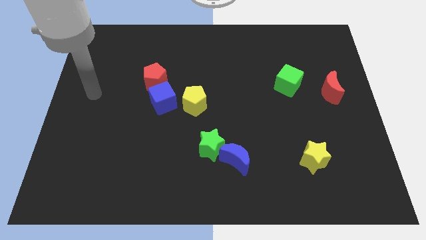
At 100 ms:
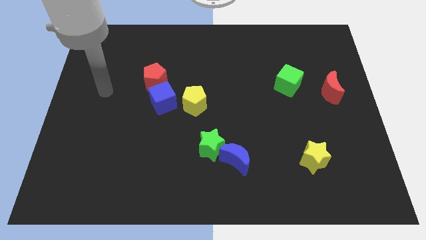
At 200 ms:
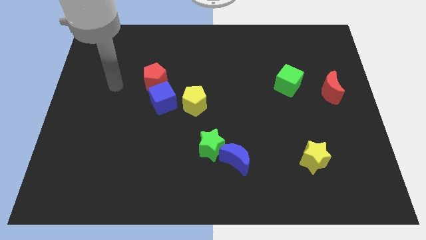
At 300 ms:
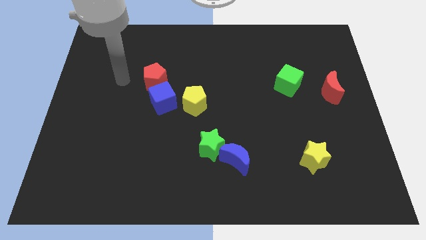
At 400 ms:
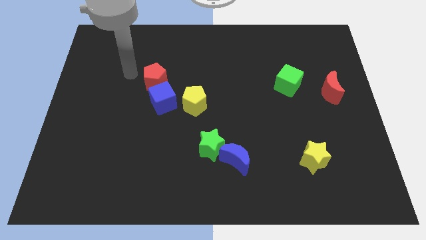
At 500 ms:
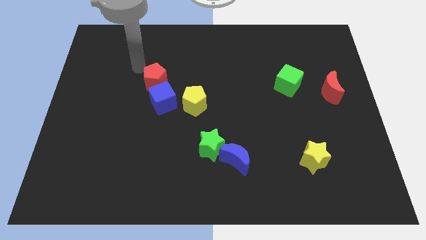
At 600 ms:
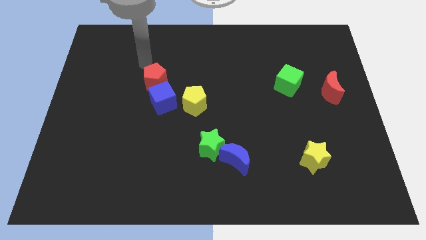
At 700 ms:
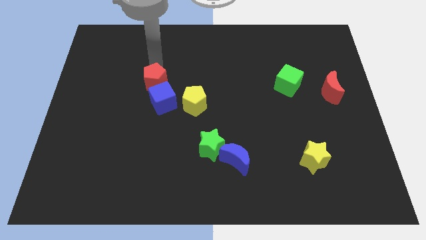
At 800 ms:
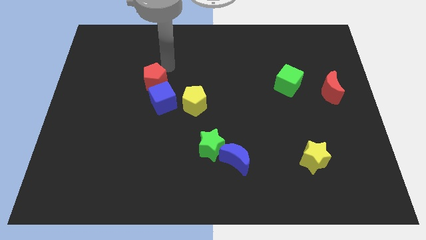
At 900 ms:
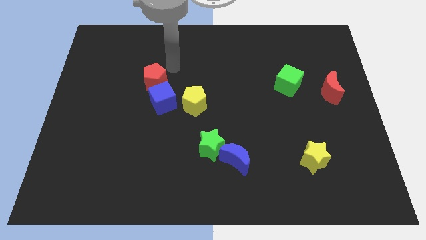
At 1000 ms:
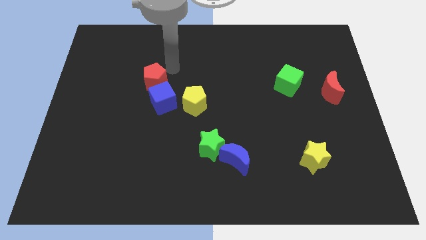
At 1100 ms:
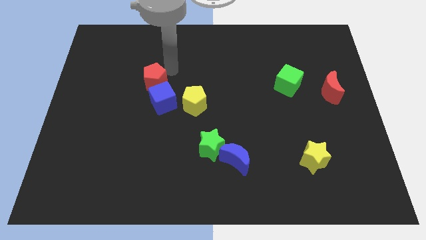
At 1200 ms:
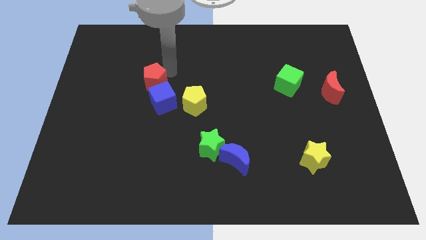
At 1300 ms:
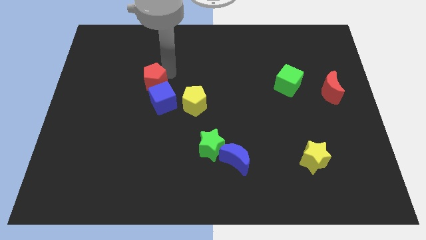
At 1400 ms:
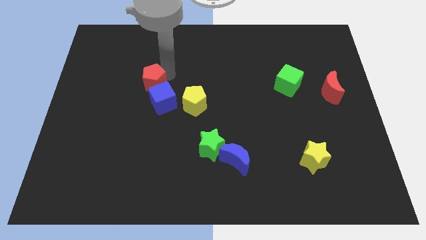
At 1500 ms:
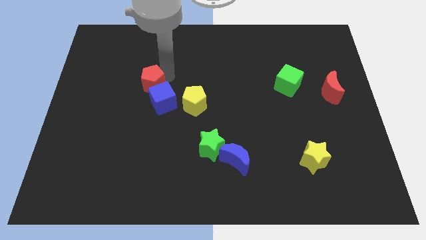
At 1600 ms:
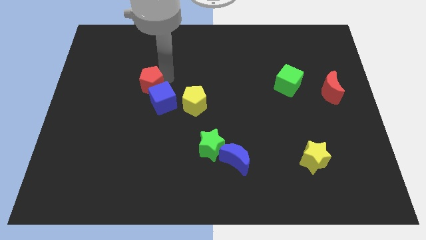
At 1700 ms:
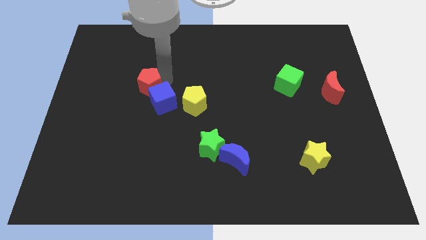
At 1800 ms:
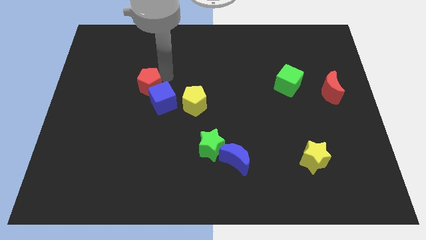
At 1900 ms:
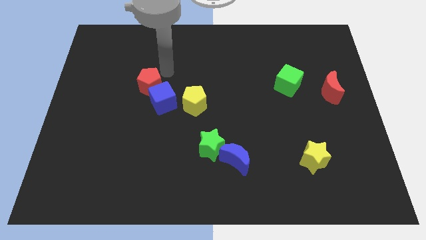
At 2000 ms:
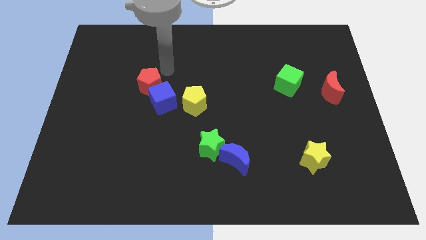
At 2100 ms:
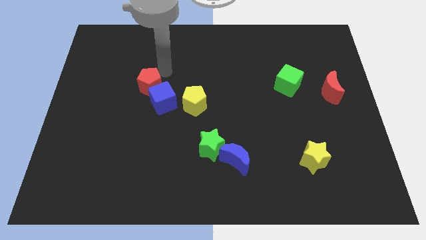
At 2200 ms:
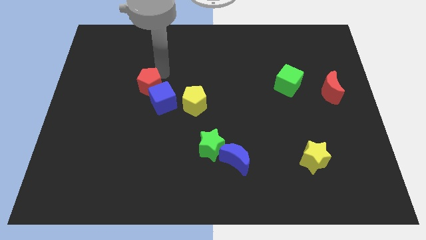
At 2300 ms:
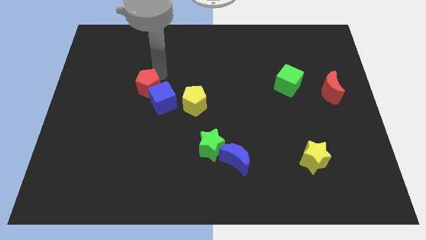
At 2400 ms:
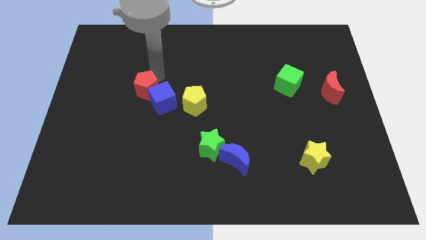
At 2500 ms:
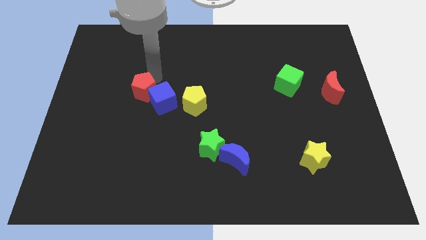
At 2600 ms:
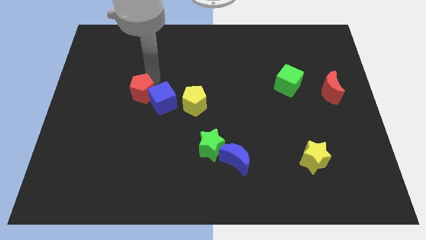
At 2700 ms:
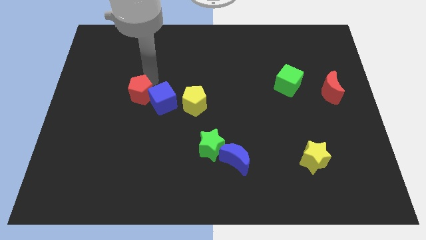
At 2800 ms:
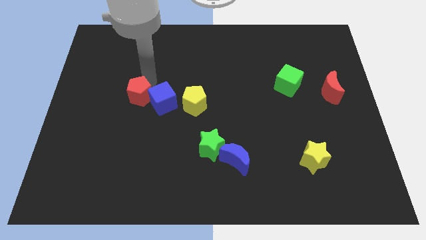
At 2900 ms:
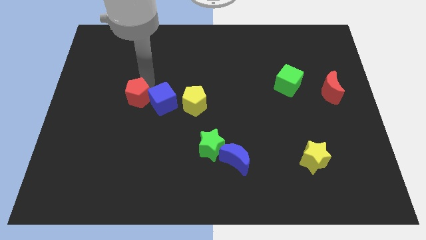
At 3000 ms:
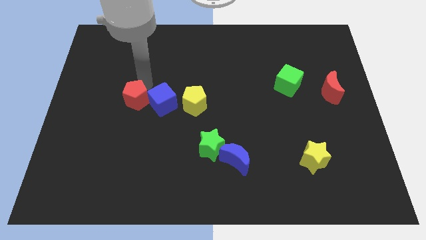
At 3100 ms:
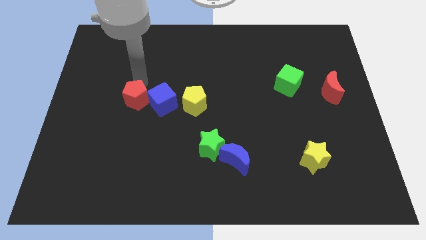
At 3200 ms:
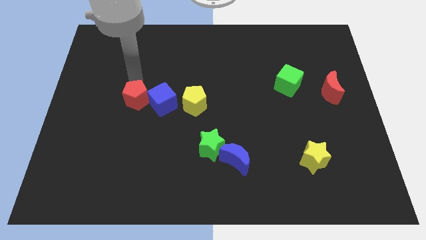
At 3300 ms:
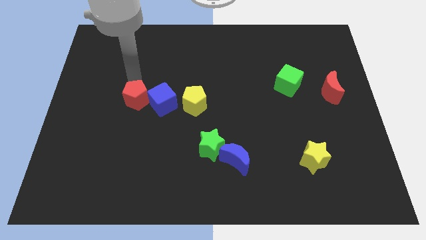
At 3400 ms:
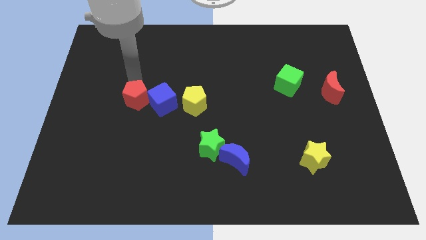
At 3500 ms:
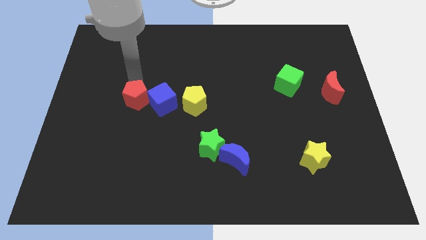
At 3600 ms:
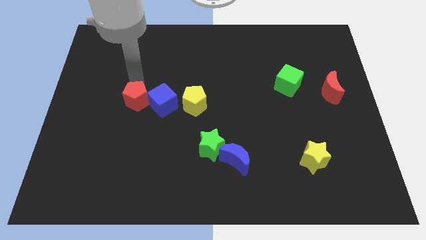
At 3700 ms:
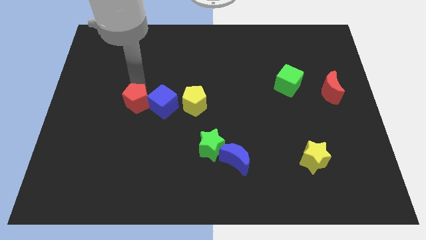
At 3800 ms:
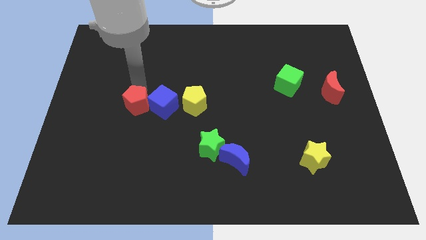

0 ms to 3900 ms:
push the red pentagon slightly down

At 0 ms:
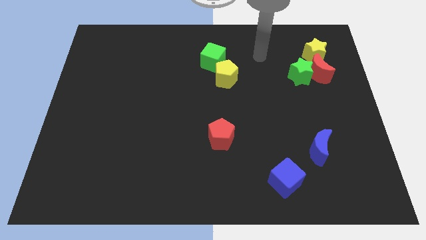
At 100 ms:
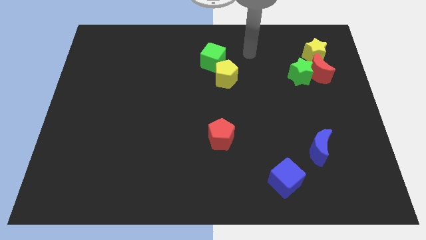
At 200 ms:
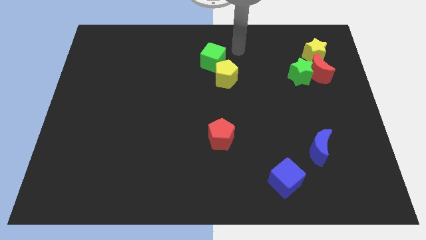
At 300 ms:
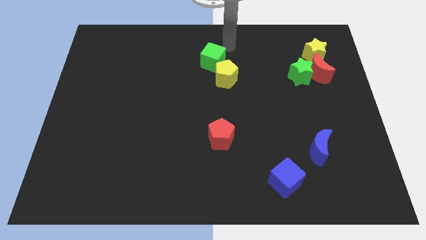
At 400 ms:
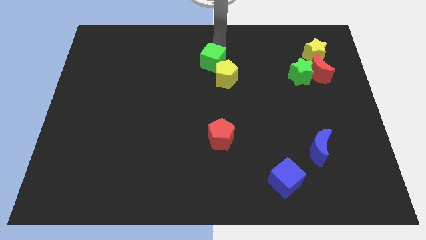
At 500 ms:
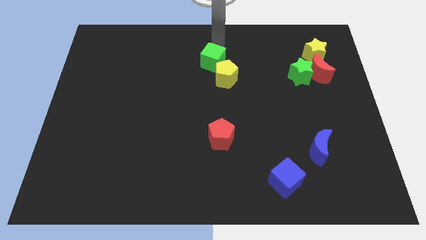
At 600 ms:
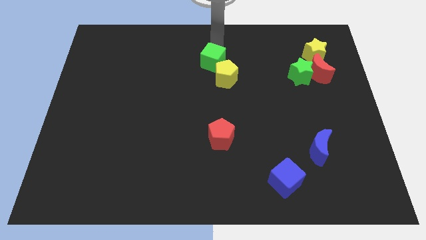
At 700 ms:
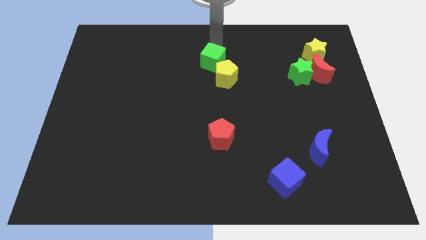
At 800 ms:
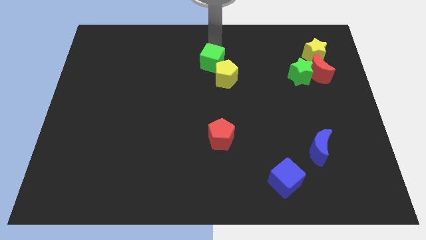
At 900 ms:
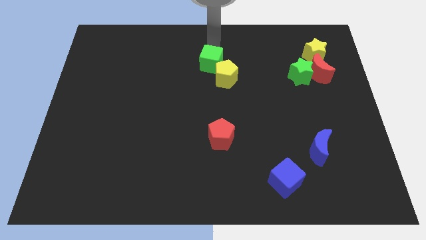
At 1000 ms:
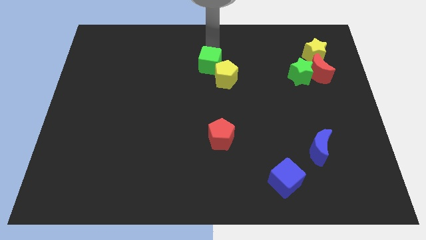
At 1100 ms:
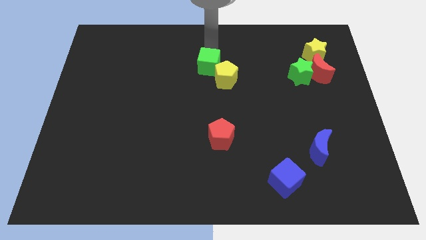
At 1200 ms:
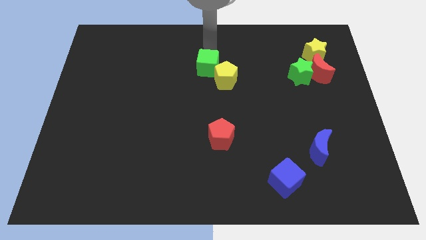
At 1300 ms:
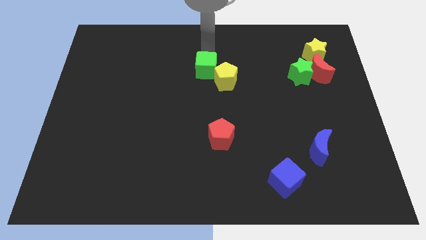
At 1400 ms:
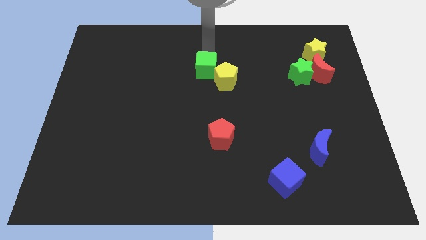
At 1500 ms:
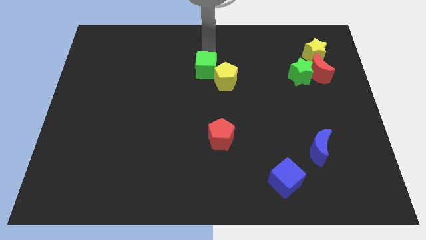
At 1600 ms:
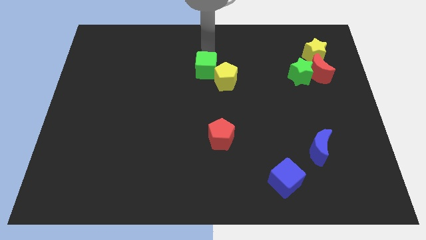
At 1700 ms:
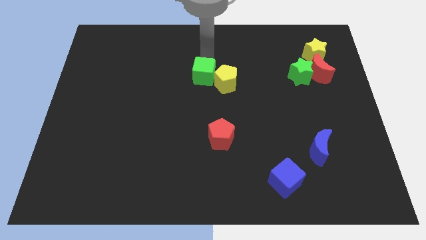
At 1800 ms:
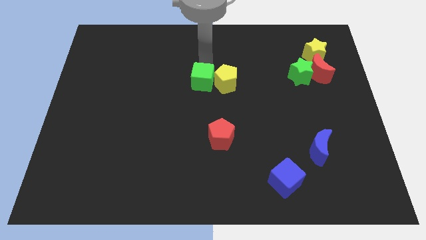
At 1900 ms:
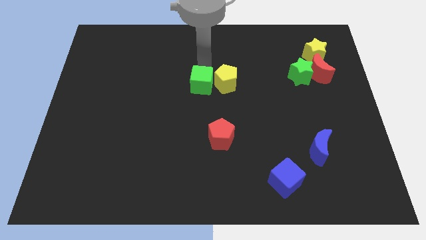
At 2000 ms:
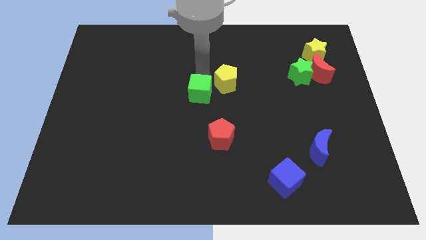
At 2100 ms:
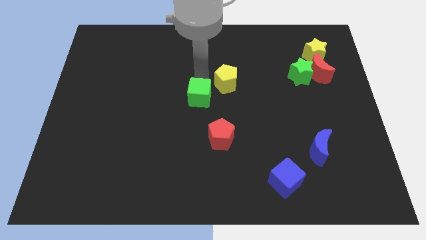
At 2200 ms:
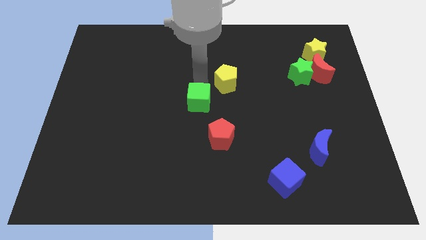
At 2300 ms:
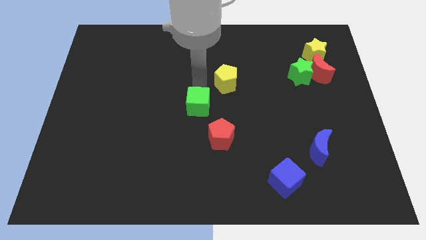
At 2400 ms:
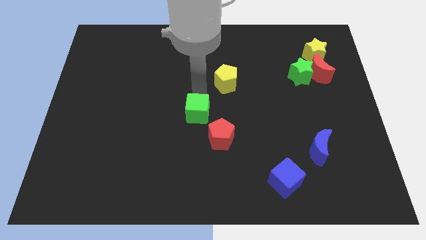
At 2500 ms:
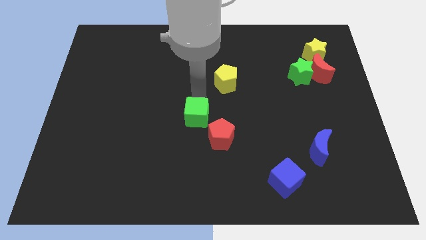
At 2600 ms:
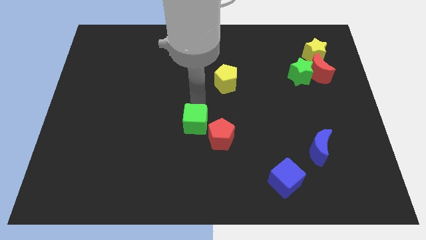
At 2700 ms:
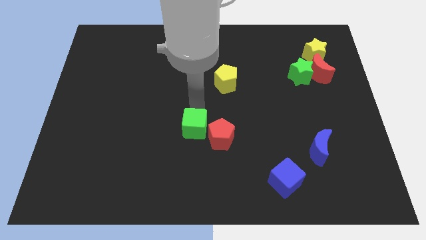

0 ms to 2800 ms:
move the green cube down

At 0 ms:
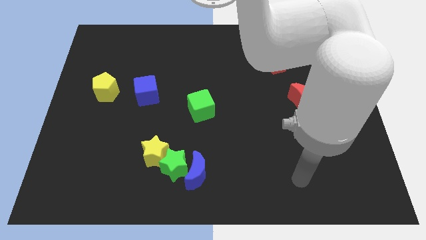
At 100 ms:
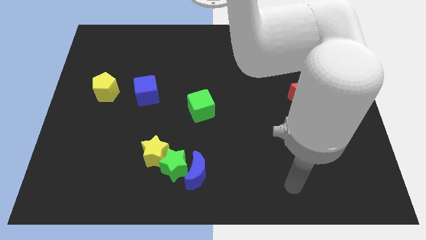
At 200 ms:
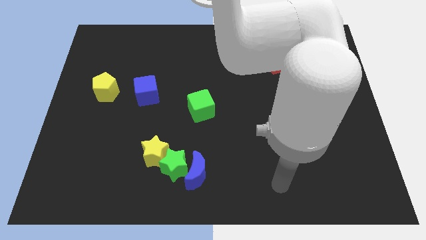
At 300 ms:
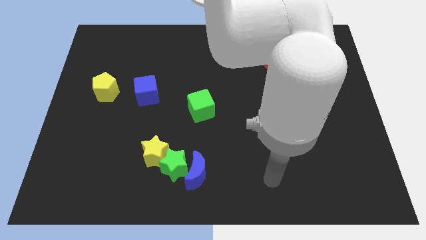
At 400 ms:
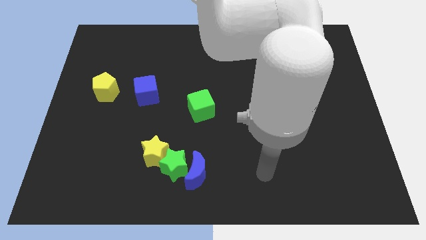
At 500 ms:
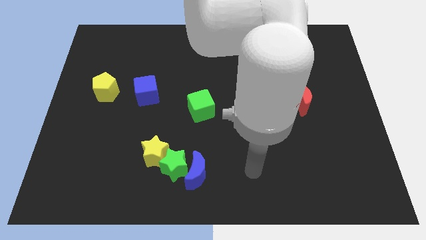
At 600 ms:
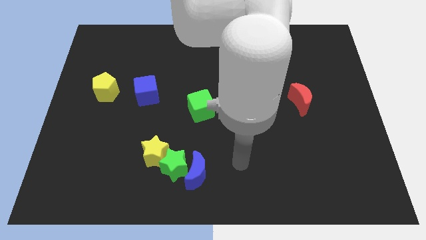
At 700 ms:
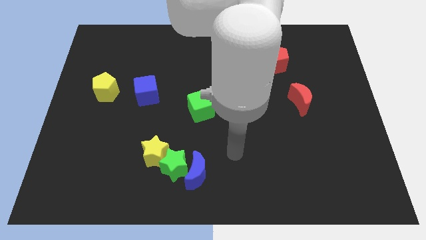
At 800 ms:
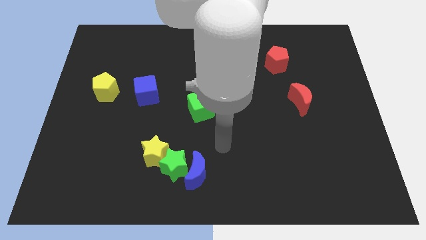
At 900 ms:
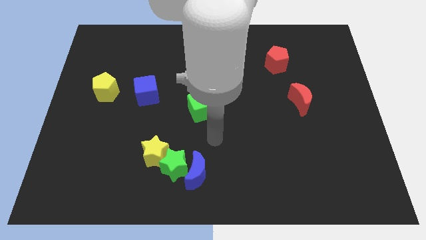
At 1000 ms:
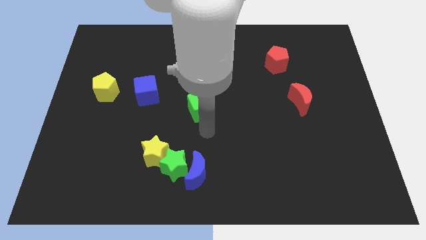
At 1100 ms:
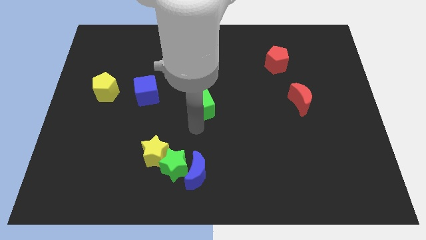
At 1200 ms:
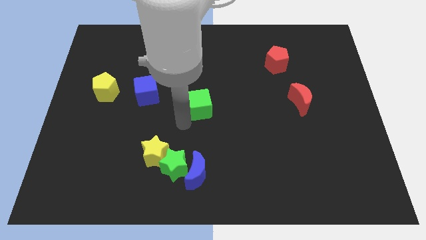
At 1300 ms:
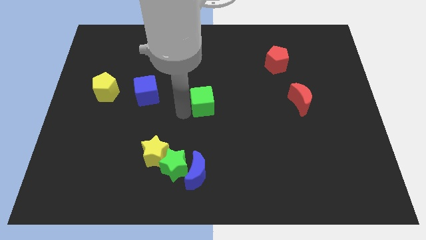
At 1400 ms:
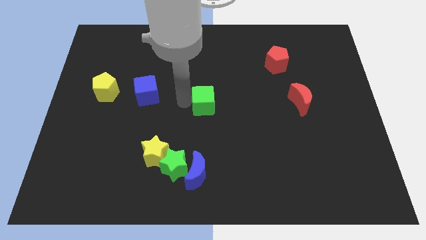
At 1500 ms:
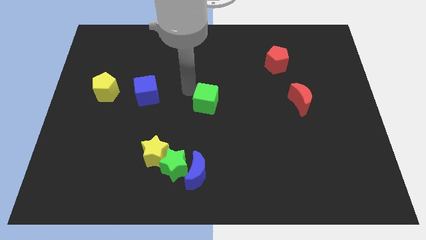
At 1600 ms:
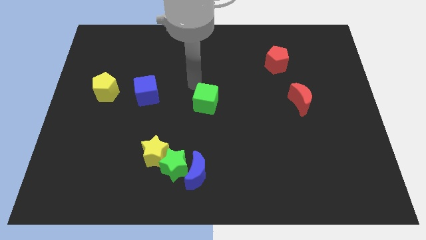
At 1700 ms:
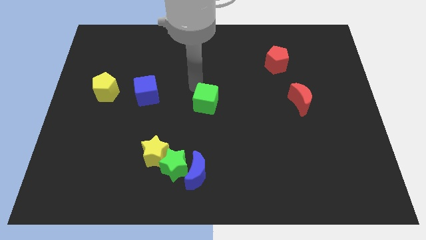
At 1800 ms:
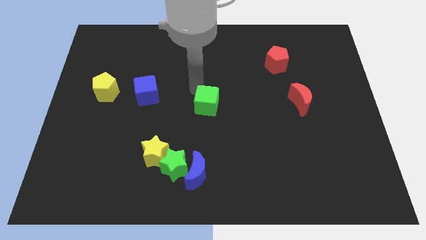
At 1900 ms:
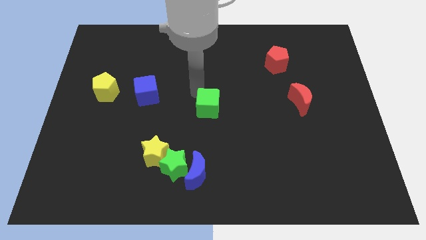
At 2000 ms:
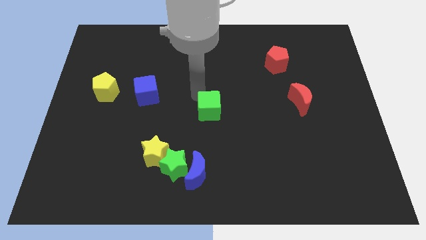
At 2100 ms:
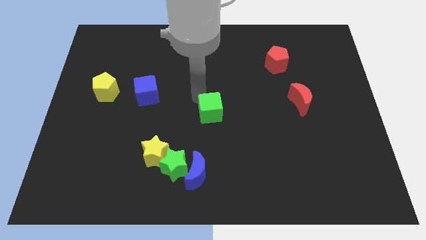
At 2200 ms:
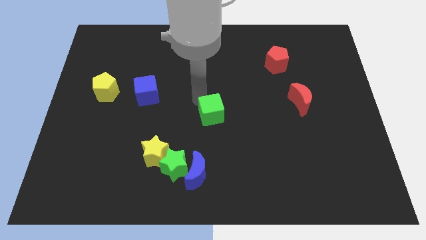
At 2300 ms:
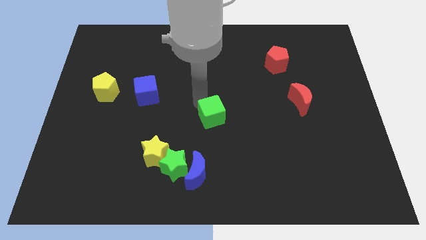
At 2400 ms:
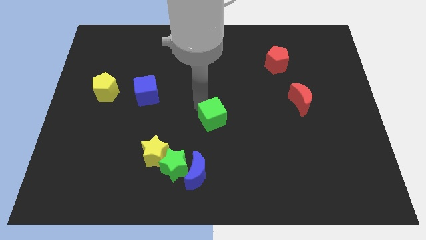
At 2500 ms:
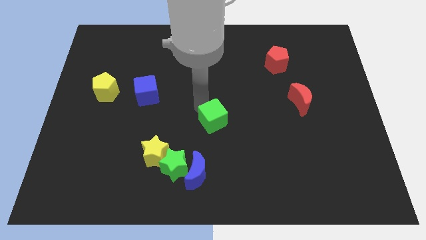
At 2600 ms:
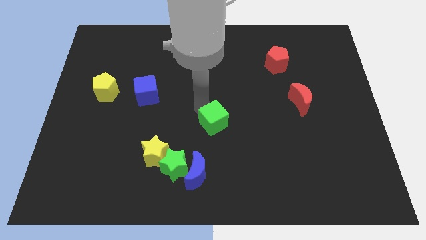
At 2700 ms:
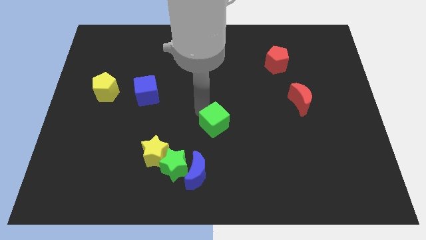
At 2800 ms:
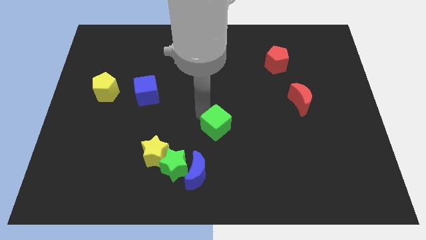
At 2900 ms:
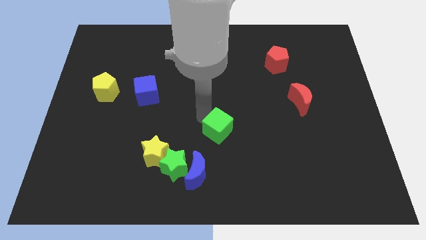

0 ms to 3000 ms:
move the green cube a bit down and to the right diagonally
